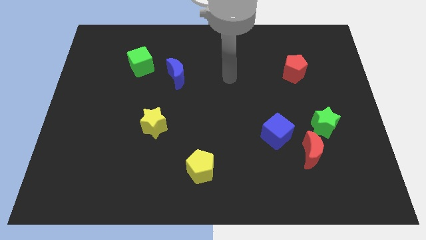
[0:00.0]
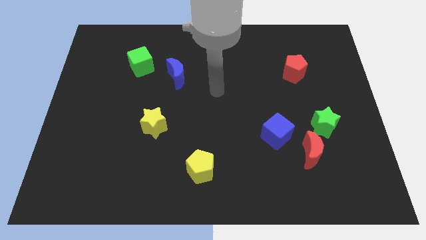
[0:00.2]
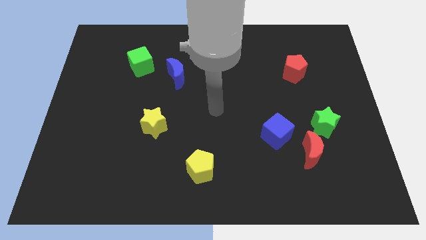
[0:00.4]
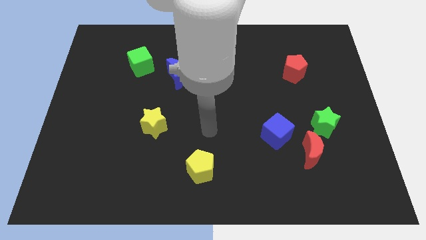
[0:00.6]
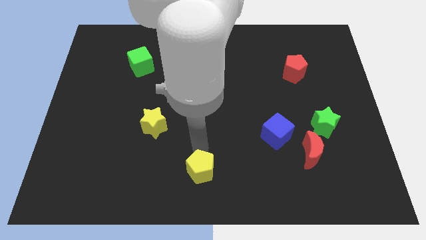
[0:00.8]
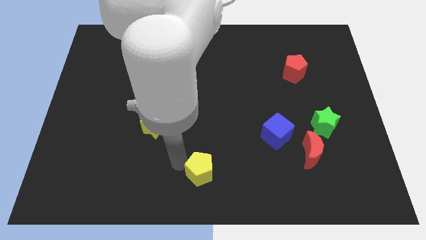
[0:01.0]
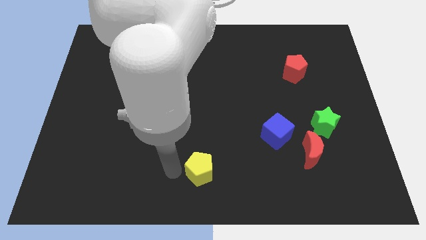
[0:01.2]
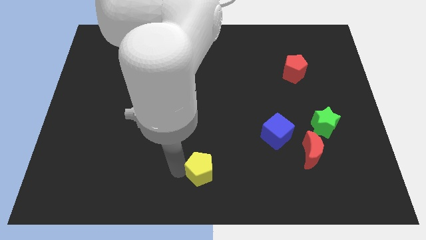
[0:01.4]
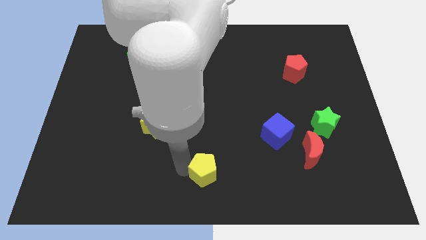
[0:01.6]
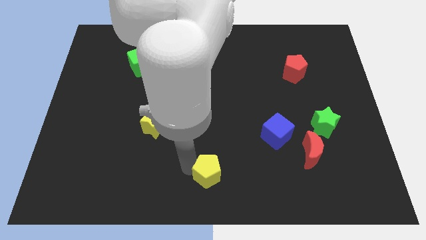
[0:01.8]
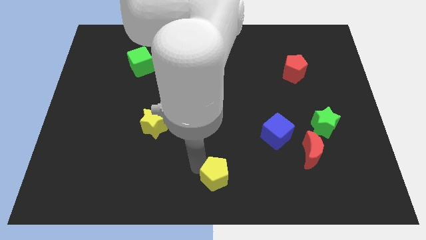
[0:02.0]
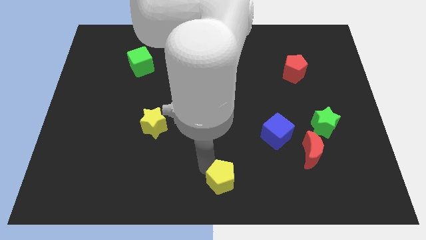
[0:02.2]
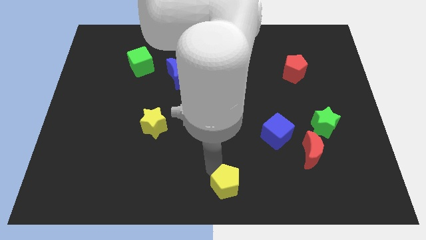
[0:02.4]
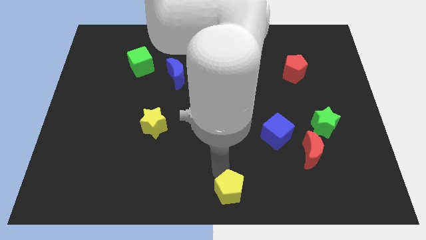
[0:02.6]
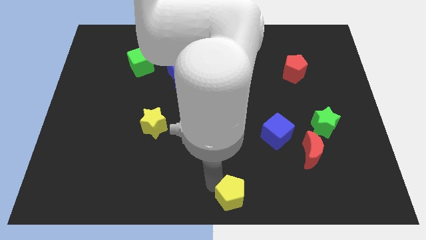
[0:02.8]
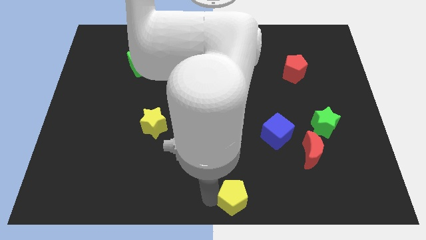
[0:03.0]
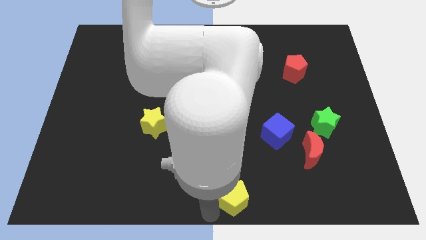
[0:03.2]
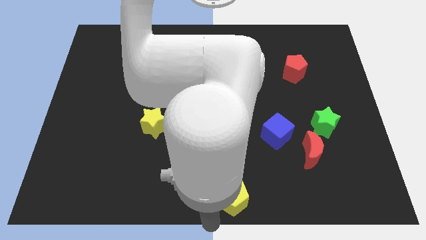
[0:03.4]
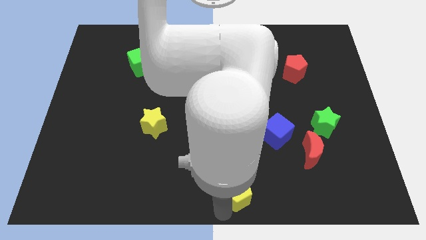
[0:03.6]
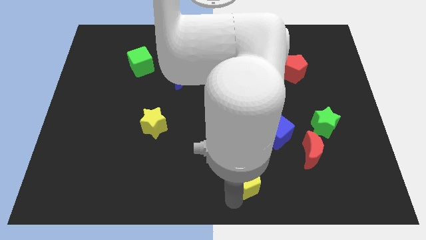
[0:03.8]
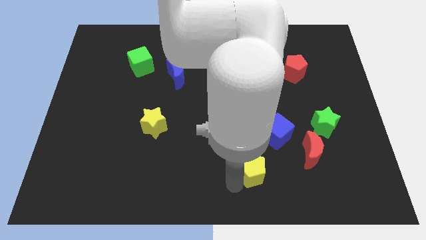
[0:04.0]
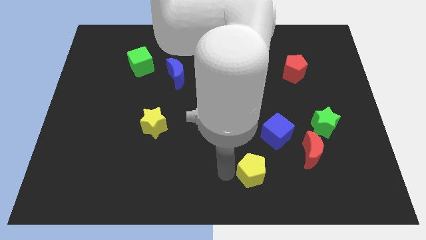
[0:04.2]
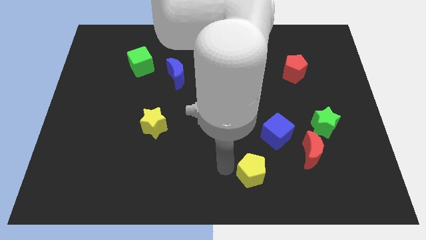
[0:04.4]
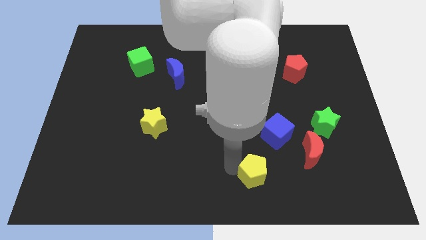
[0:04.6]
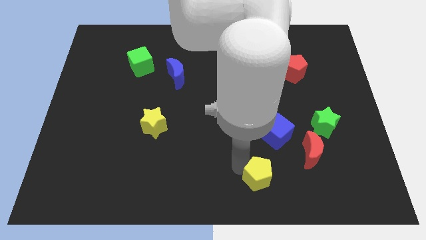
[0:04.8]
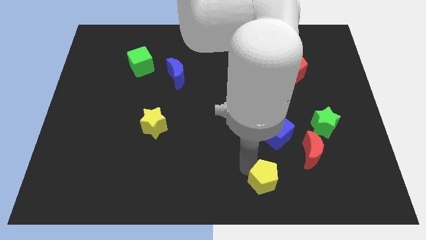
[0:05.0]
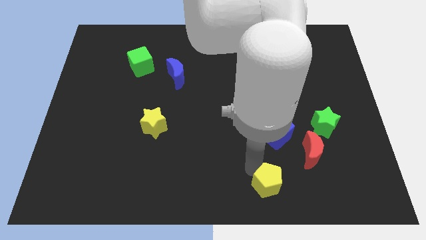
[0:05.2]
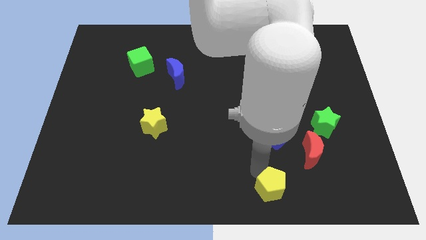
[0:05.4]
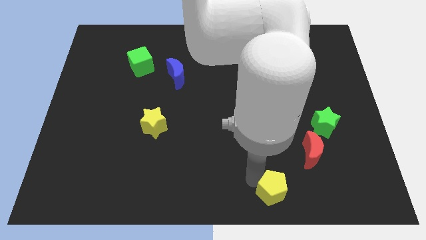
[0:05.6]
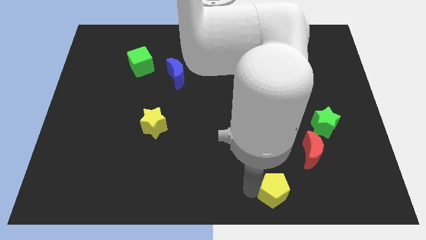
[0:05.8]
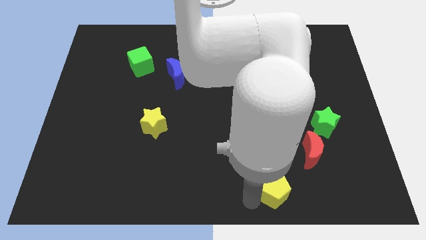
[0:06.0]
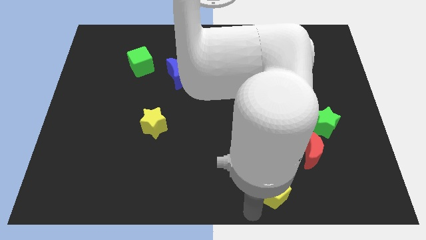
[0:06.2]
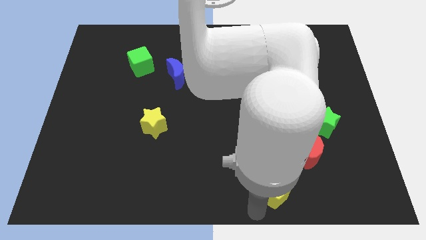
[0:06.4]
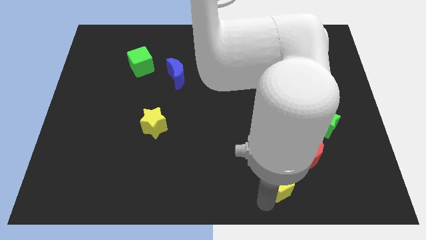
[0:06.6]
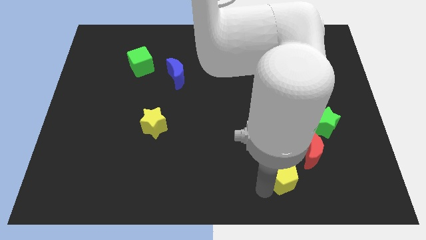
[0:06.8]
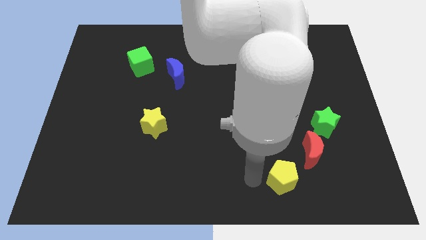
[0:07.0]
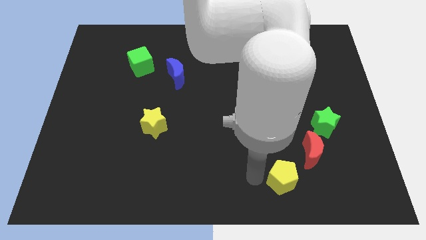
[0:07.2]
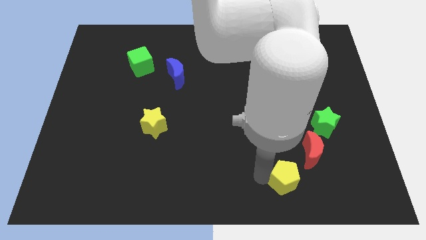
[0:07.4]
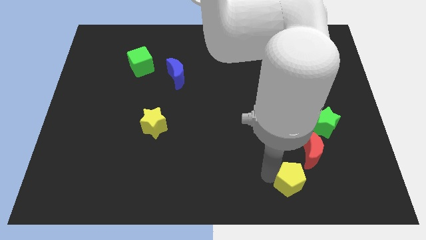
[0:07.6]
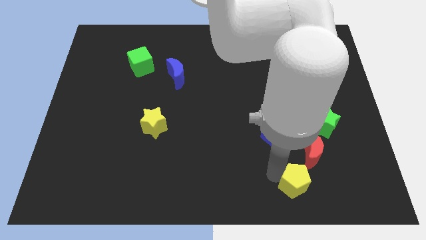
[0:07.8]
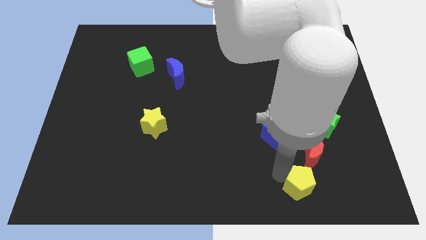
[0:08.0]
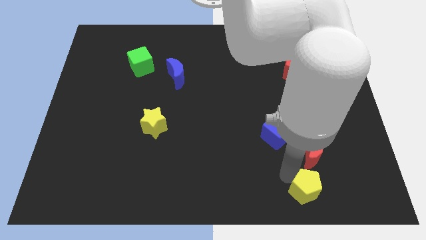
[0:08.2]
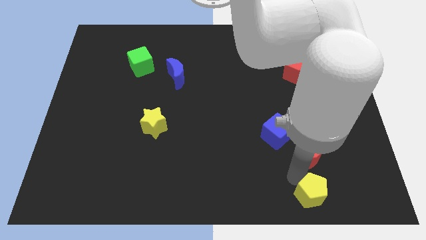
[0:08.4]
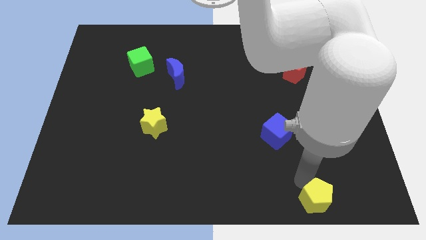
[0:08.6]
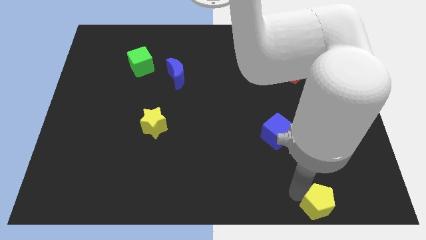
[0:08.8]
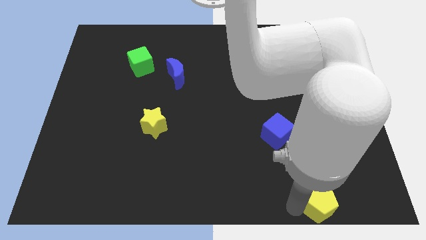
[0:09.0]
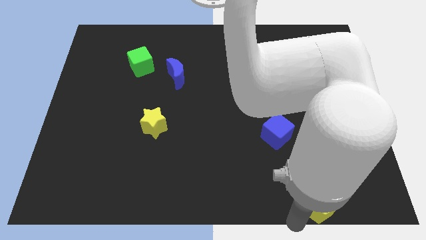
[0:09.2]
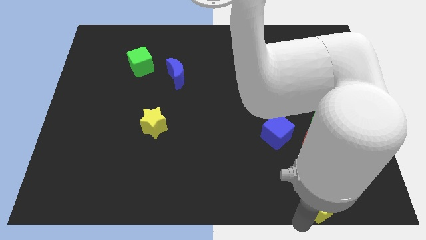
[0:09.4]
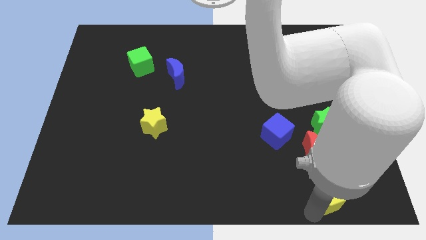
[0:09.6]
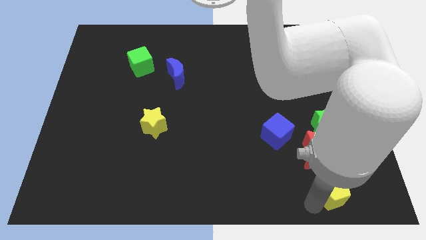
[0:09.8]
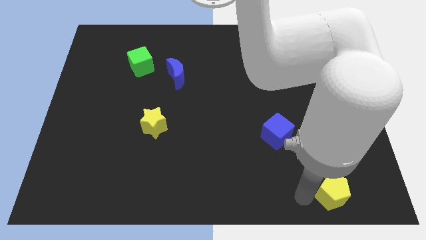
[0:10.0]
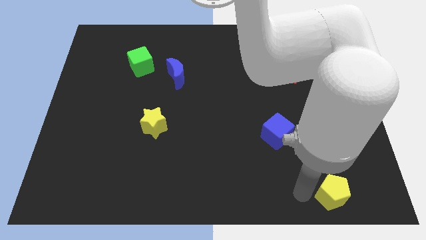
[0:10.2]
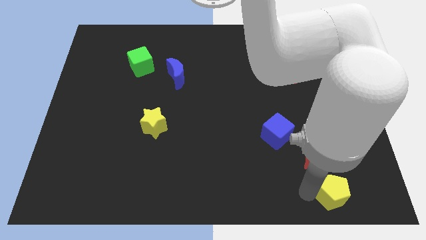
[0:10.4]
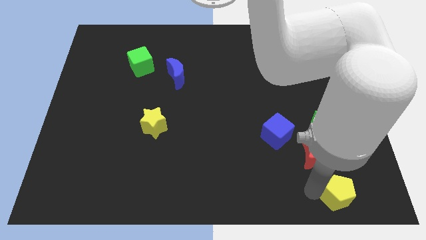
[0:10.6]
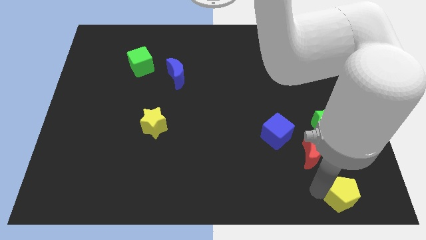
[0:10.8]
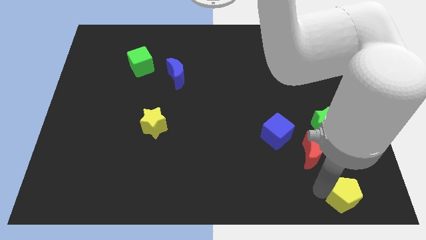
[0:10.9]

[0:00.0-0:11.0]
move the yellow pentagon to the bottom right of the board
